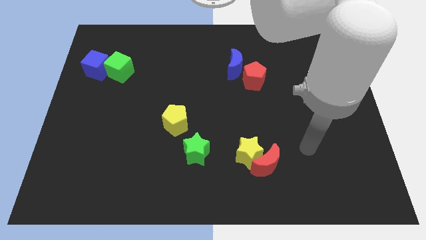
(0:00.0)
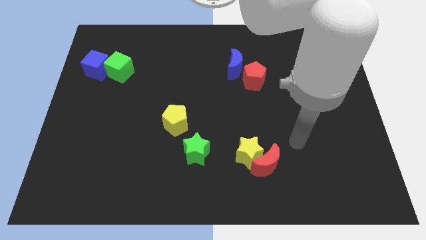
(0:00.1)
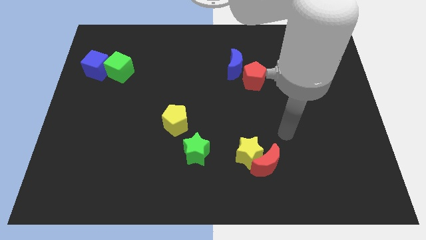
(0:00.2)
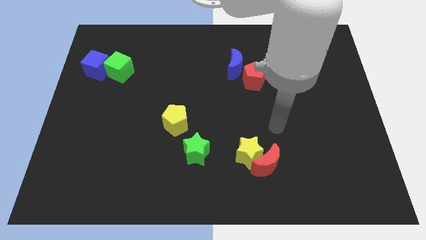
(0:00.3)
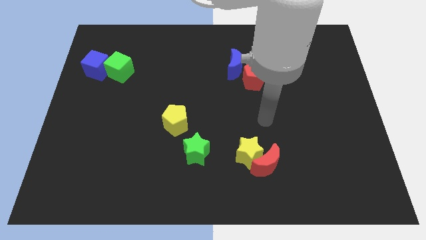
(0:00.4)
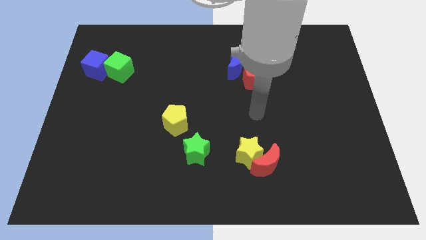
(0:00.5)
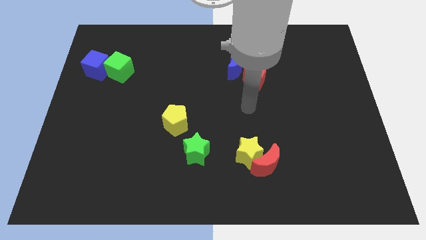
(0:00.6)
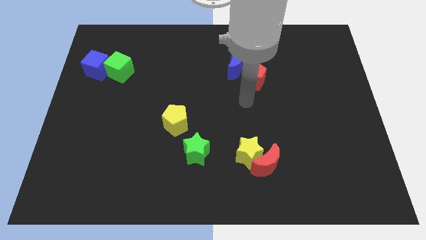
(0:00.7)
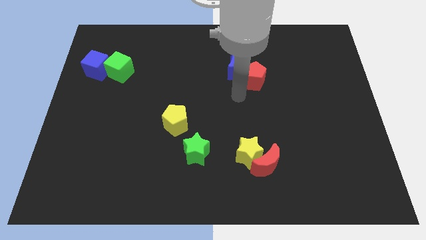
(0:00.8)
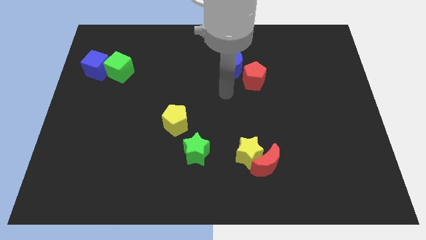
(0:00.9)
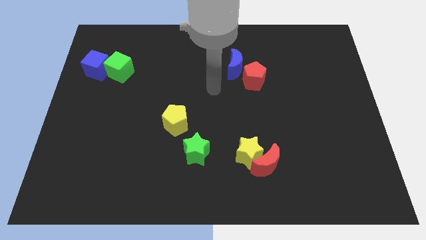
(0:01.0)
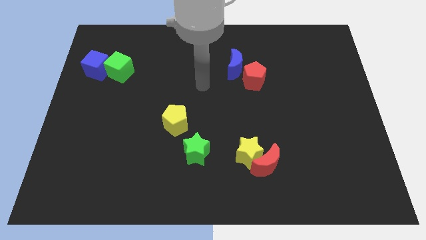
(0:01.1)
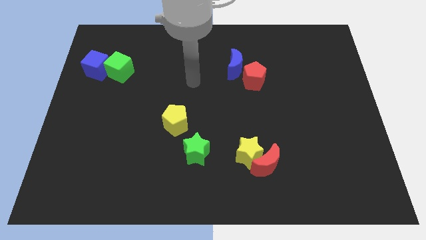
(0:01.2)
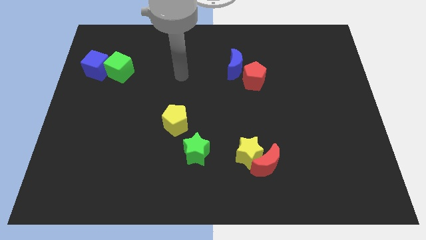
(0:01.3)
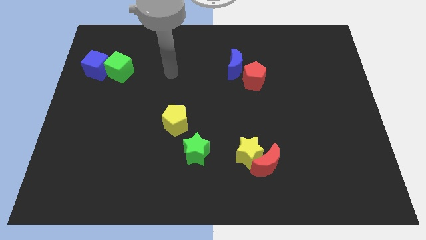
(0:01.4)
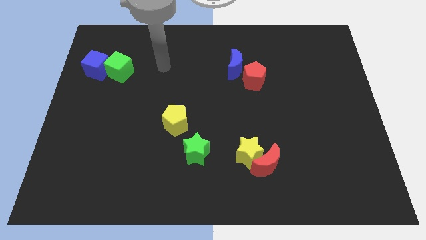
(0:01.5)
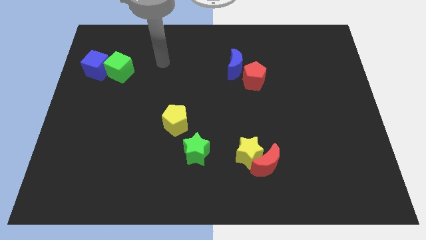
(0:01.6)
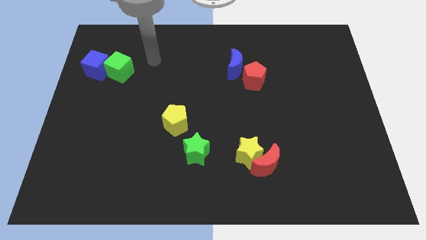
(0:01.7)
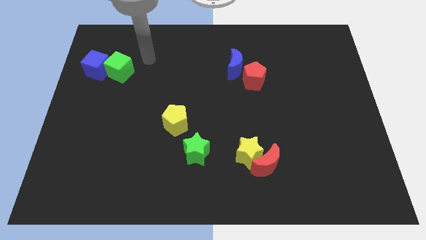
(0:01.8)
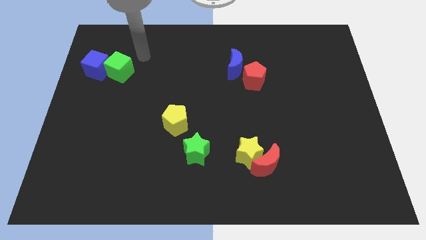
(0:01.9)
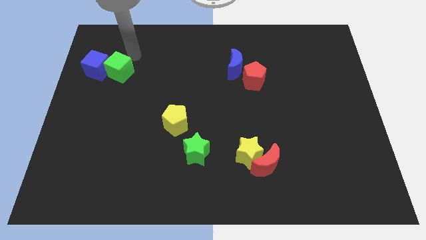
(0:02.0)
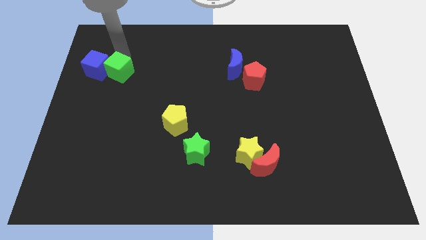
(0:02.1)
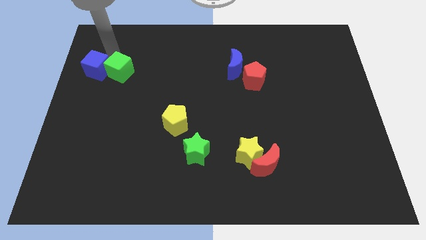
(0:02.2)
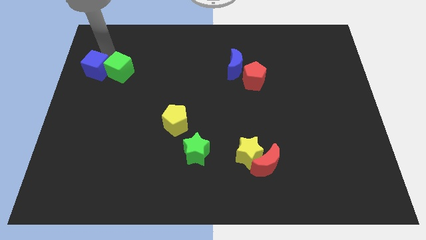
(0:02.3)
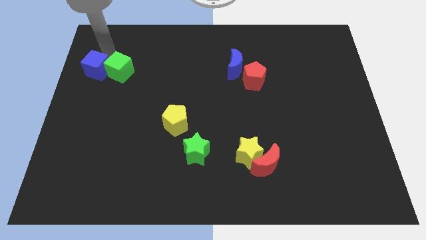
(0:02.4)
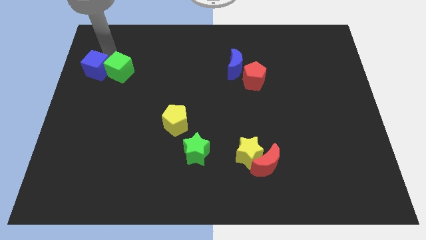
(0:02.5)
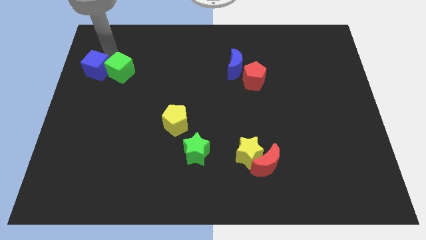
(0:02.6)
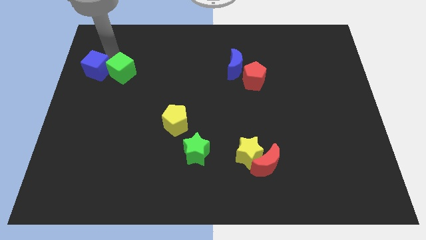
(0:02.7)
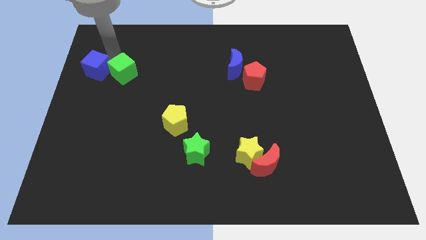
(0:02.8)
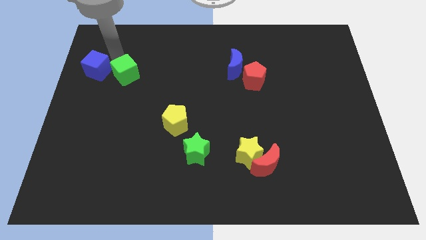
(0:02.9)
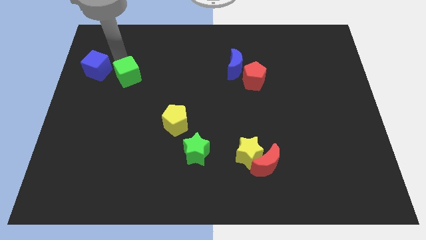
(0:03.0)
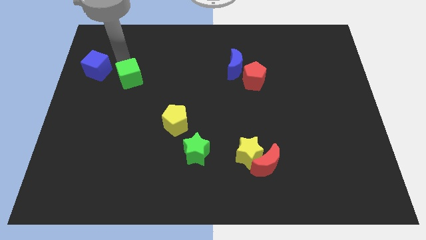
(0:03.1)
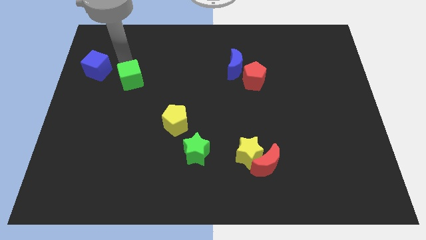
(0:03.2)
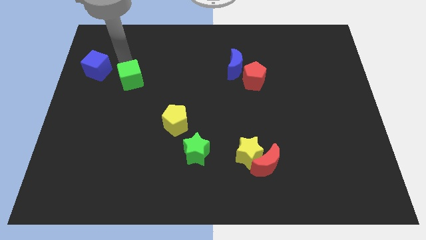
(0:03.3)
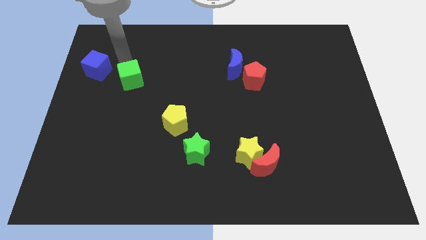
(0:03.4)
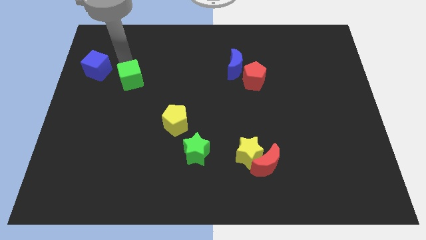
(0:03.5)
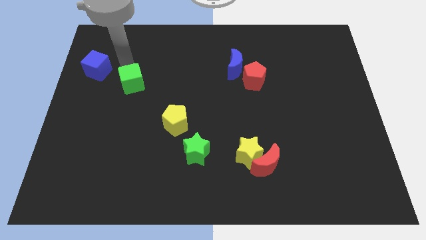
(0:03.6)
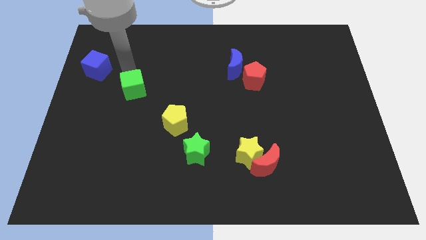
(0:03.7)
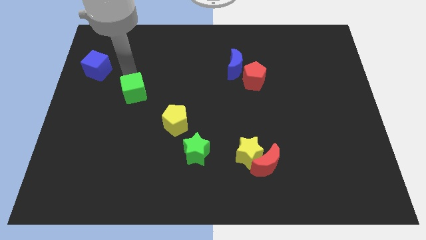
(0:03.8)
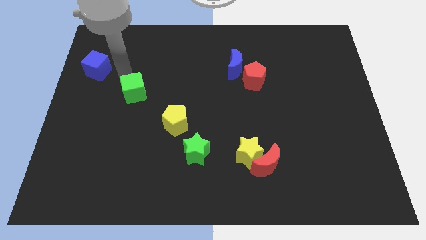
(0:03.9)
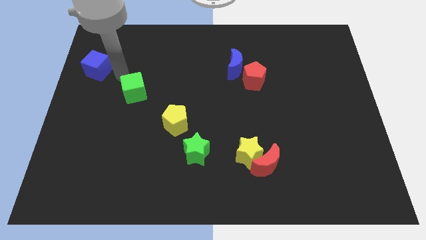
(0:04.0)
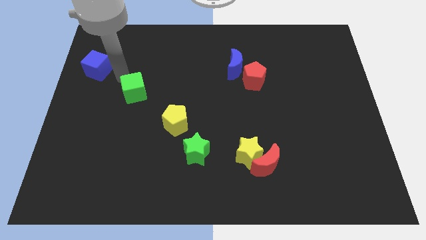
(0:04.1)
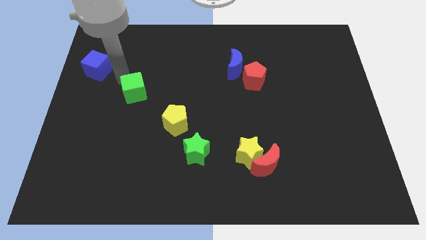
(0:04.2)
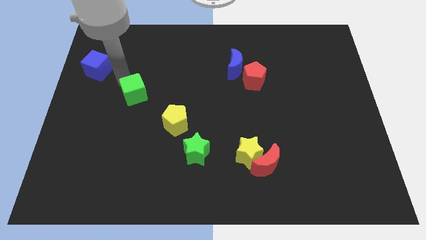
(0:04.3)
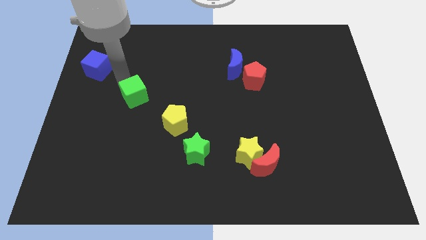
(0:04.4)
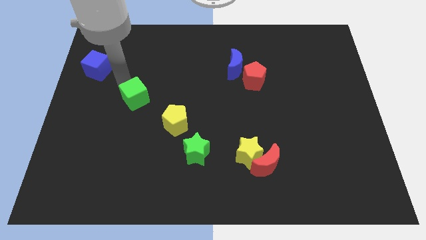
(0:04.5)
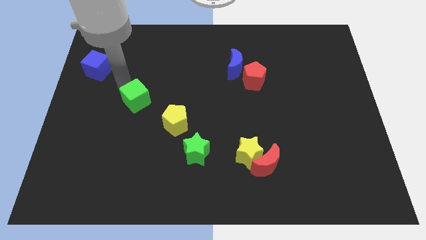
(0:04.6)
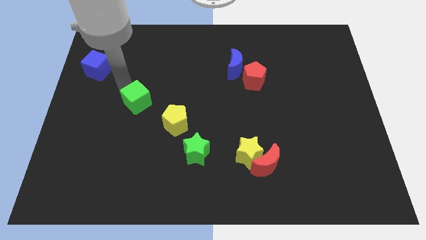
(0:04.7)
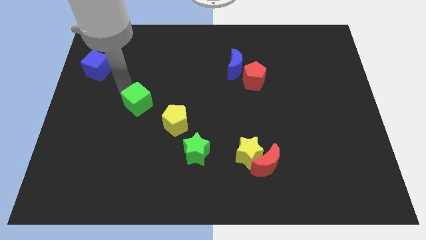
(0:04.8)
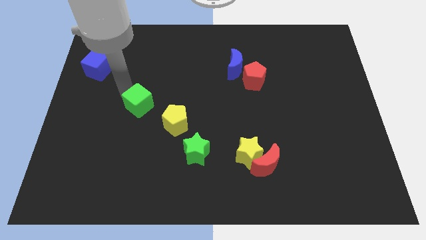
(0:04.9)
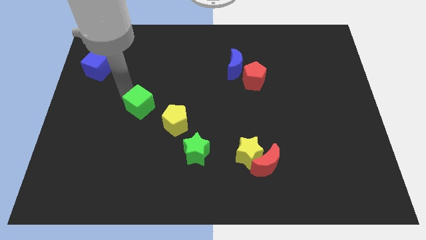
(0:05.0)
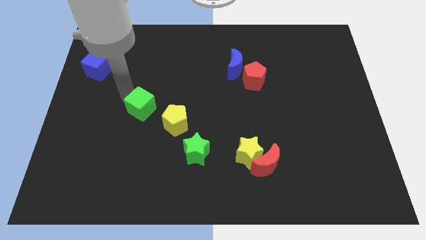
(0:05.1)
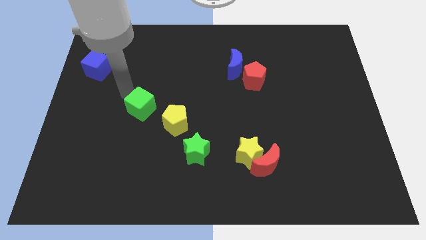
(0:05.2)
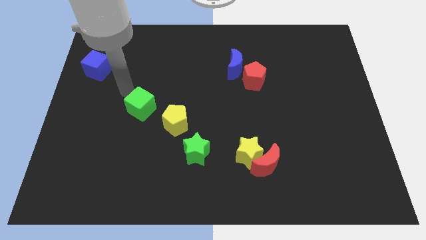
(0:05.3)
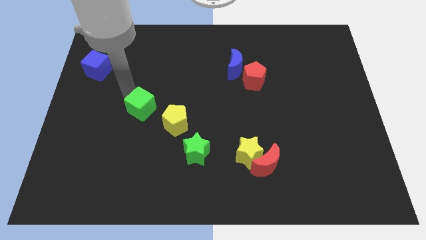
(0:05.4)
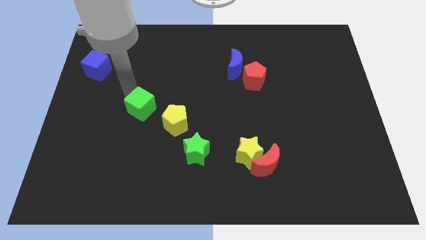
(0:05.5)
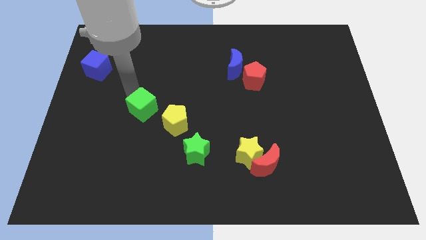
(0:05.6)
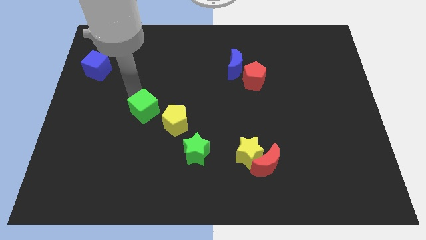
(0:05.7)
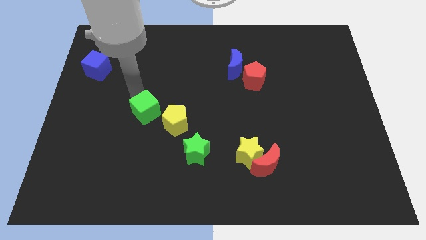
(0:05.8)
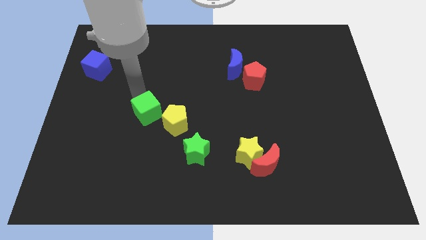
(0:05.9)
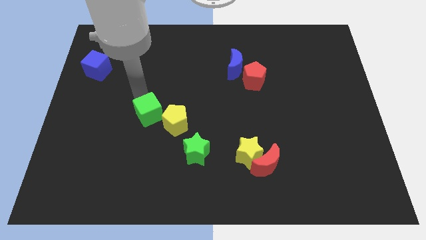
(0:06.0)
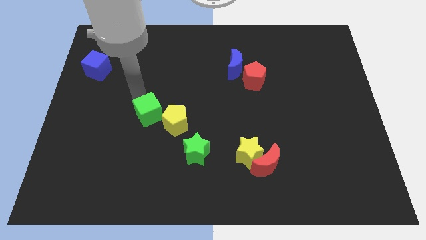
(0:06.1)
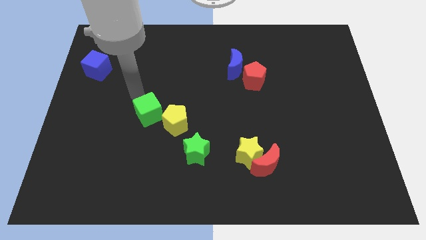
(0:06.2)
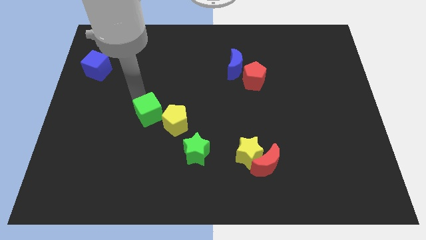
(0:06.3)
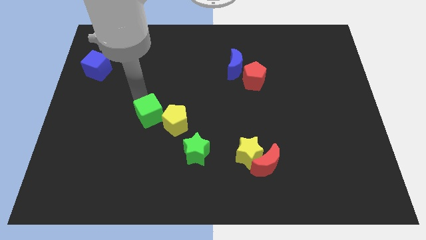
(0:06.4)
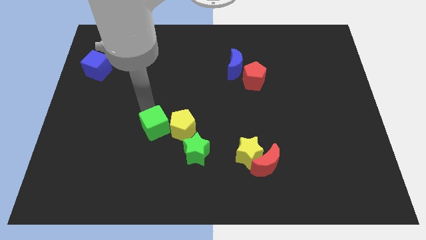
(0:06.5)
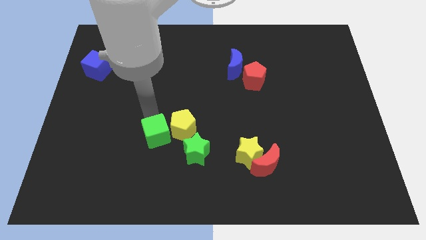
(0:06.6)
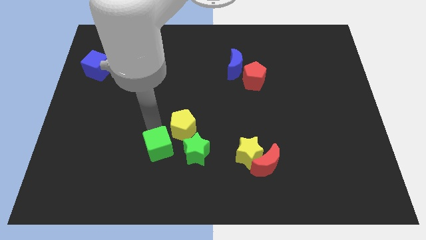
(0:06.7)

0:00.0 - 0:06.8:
slide the green cube to the bottom side of the yellow pentagon
